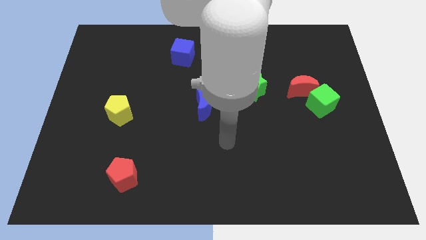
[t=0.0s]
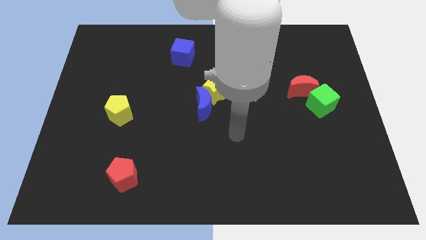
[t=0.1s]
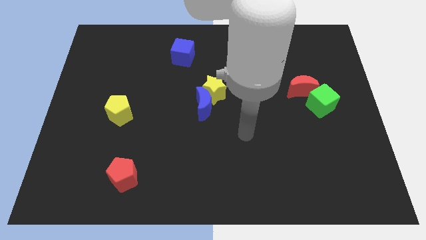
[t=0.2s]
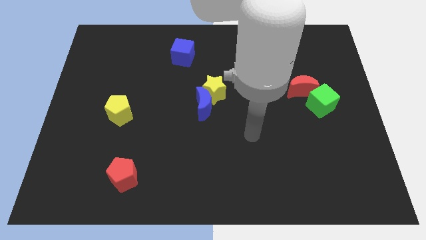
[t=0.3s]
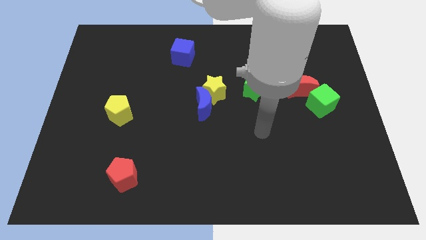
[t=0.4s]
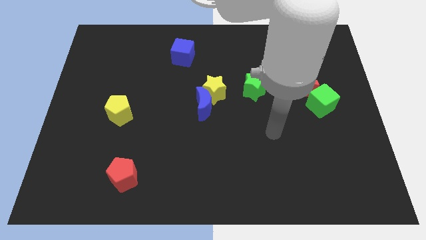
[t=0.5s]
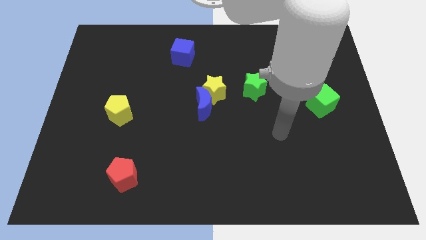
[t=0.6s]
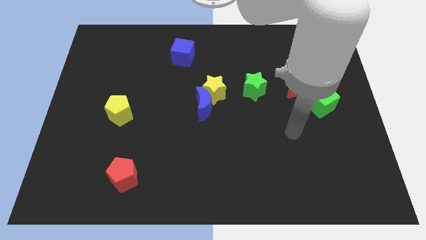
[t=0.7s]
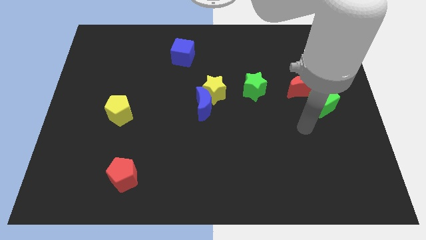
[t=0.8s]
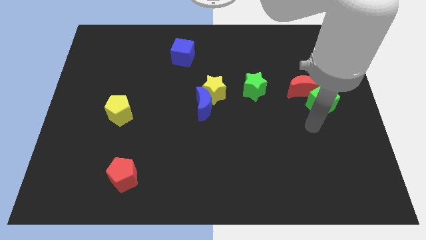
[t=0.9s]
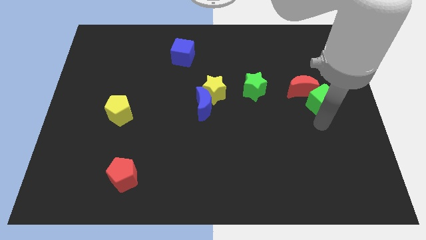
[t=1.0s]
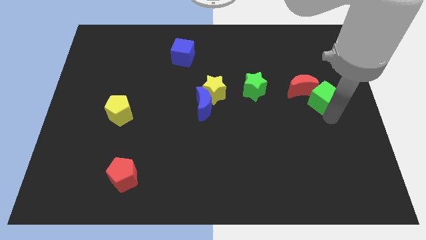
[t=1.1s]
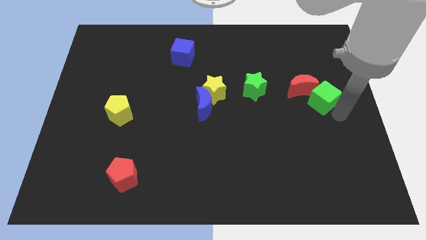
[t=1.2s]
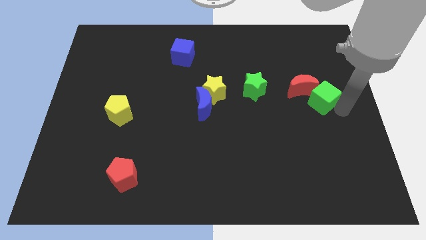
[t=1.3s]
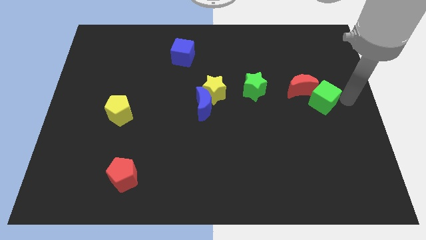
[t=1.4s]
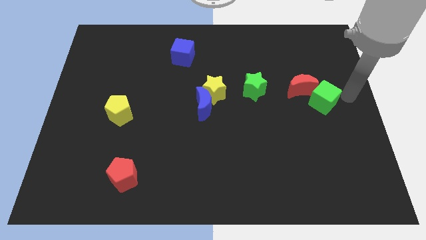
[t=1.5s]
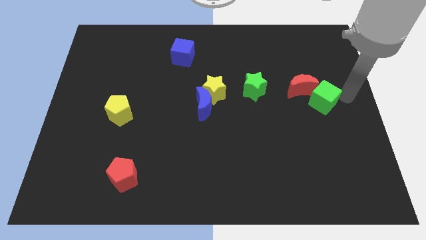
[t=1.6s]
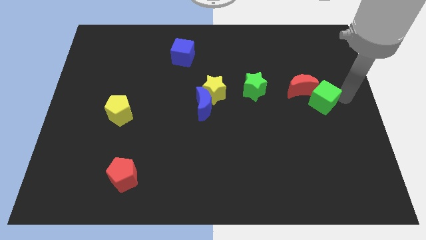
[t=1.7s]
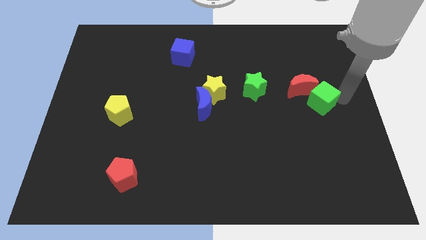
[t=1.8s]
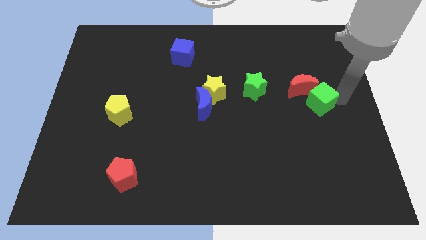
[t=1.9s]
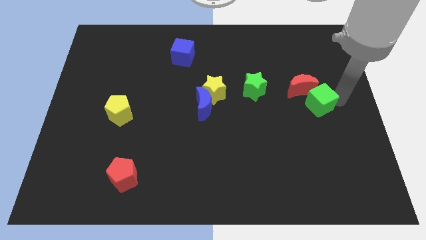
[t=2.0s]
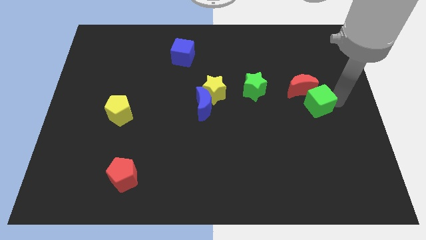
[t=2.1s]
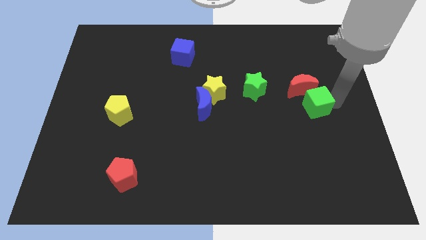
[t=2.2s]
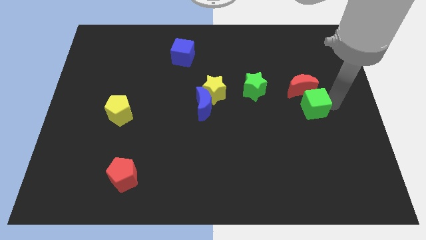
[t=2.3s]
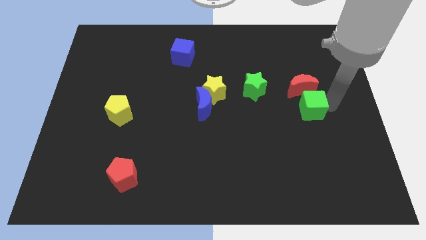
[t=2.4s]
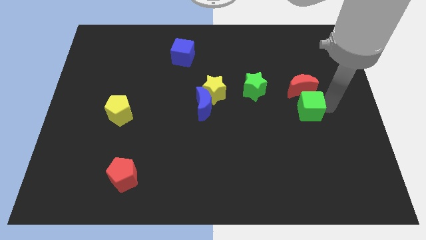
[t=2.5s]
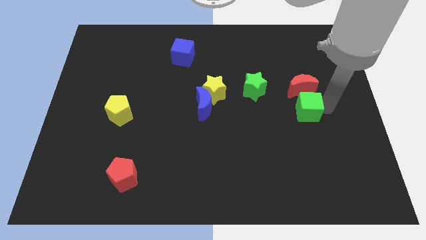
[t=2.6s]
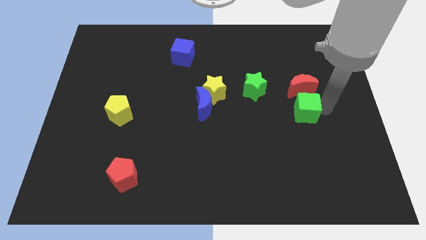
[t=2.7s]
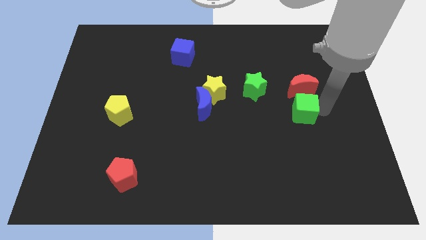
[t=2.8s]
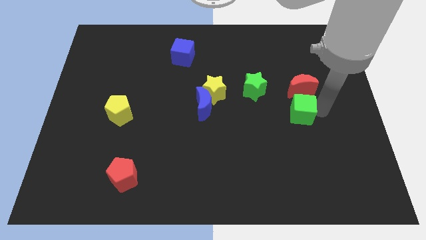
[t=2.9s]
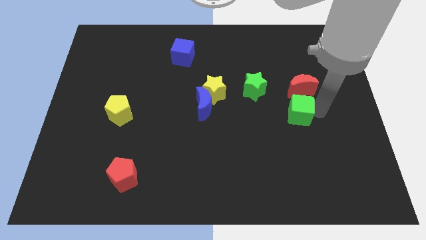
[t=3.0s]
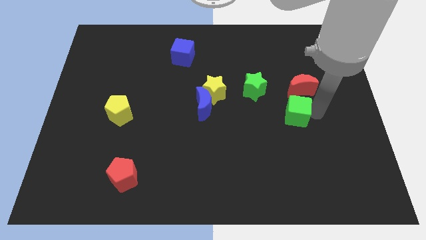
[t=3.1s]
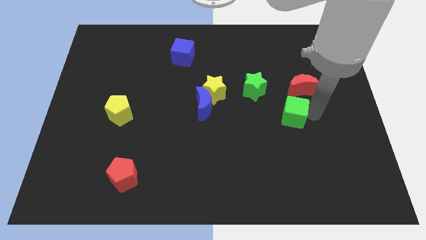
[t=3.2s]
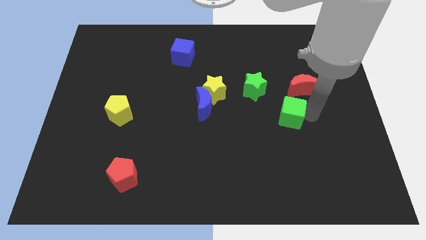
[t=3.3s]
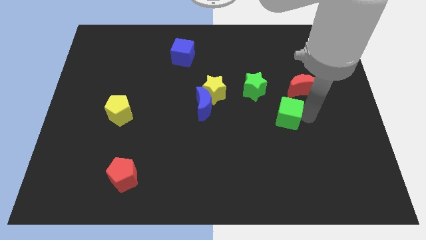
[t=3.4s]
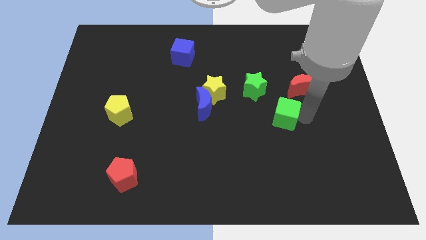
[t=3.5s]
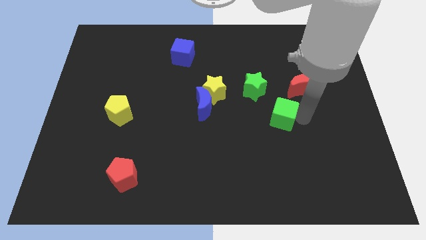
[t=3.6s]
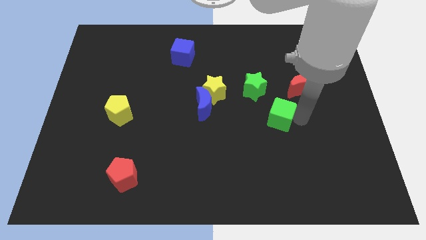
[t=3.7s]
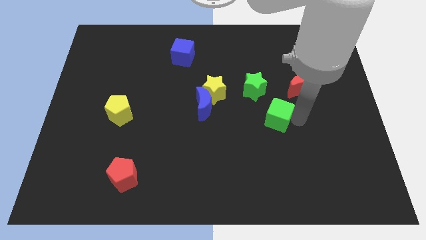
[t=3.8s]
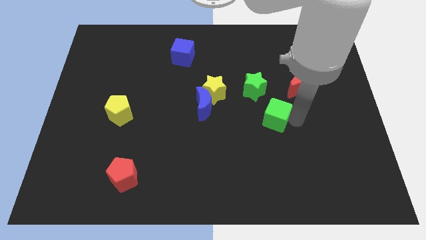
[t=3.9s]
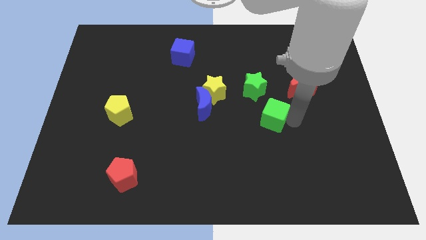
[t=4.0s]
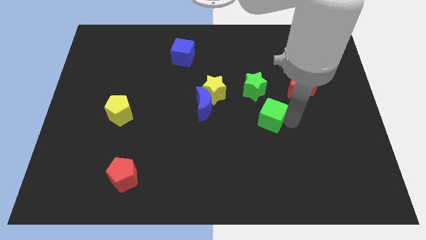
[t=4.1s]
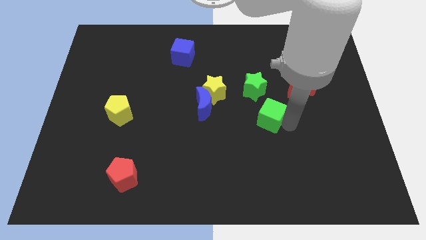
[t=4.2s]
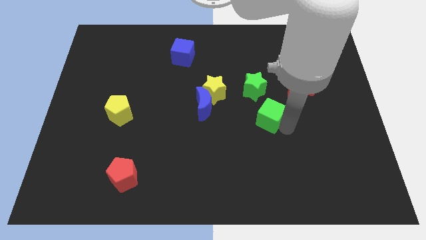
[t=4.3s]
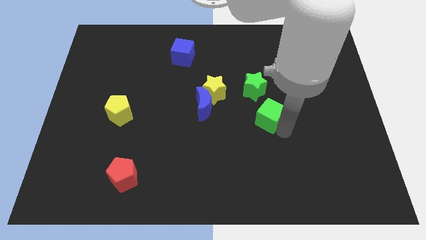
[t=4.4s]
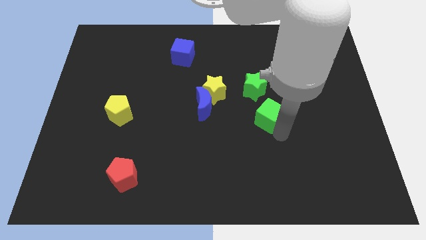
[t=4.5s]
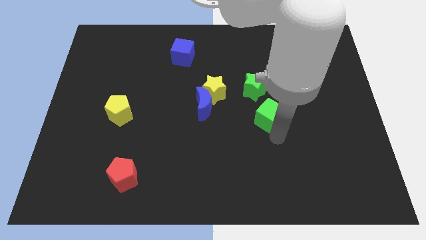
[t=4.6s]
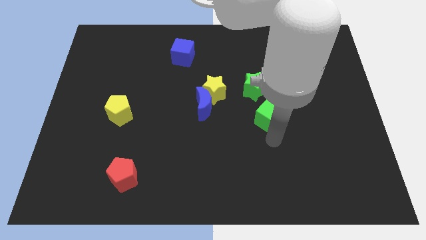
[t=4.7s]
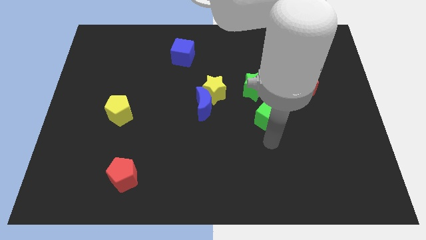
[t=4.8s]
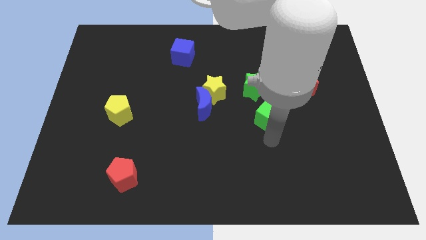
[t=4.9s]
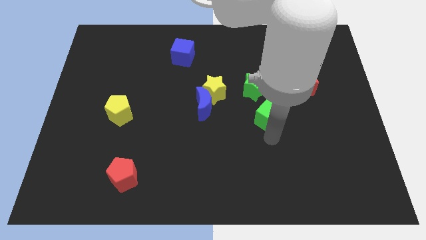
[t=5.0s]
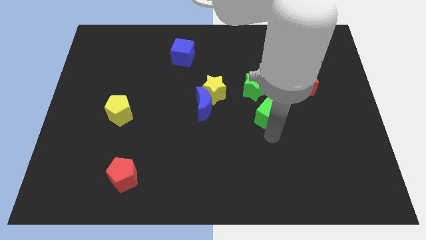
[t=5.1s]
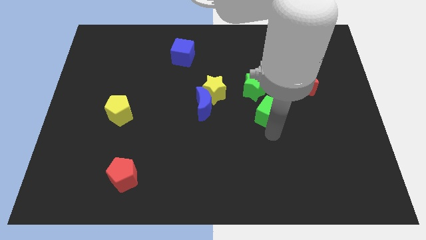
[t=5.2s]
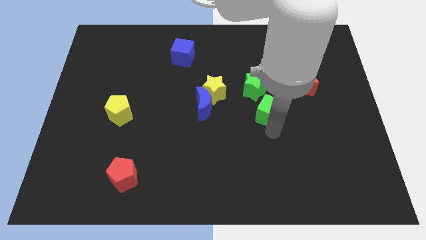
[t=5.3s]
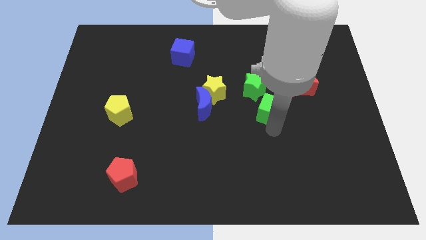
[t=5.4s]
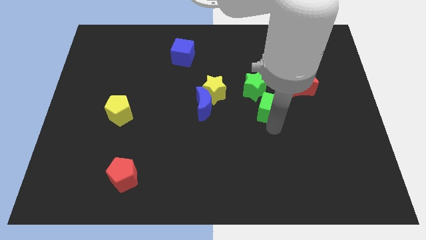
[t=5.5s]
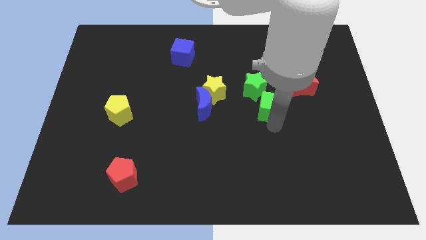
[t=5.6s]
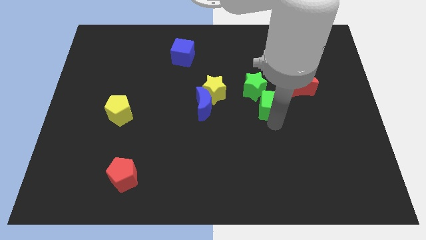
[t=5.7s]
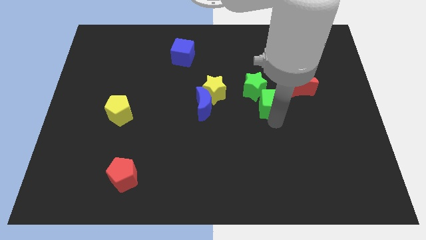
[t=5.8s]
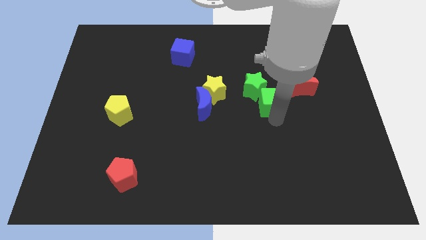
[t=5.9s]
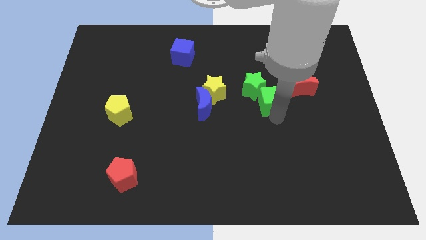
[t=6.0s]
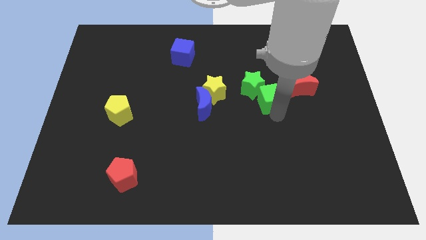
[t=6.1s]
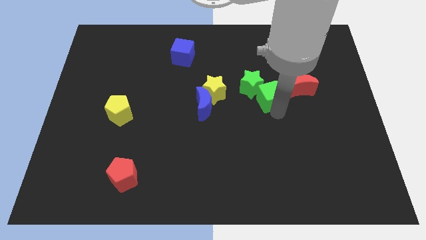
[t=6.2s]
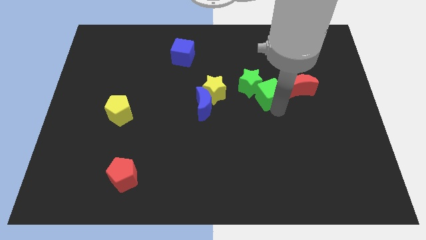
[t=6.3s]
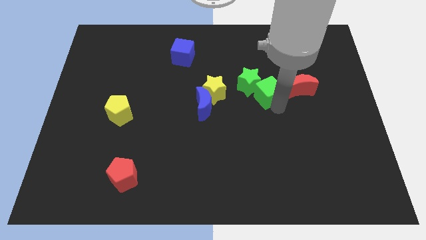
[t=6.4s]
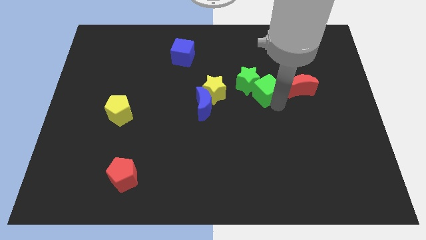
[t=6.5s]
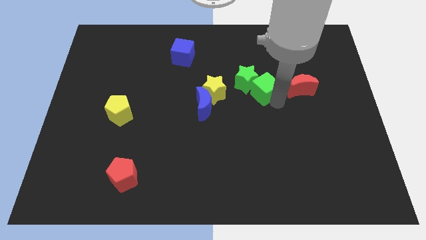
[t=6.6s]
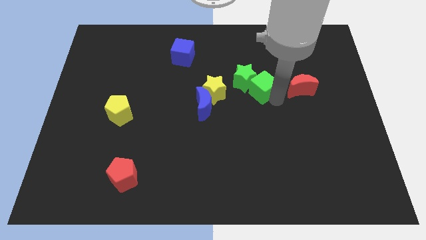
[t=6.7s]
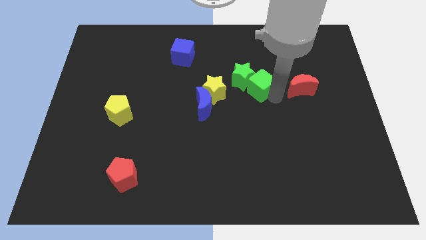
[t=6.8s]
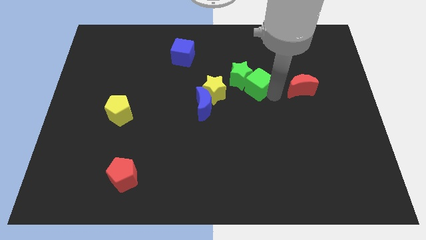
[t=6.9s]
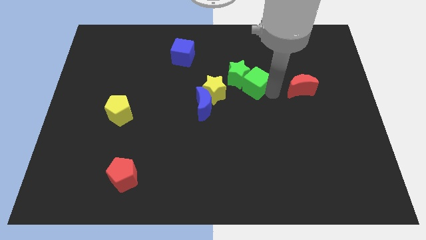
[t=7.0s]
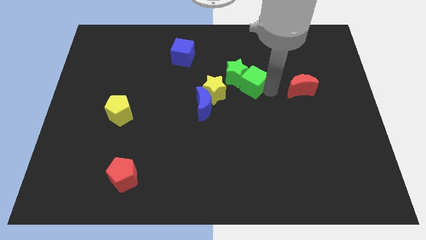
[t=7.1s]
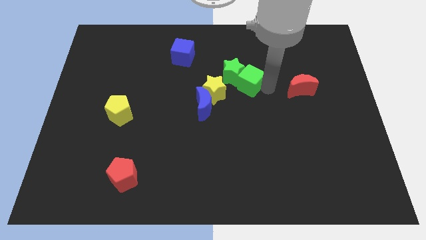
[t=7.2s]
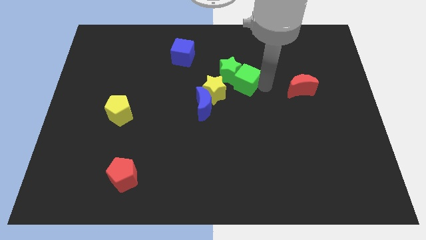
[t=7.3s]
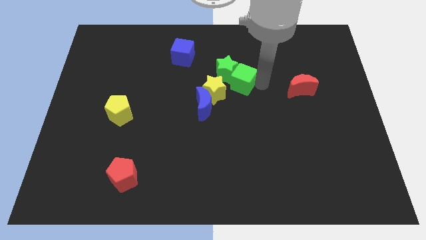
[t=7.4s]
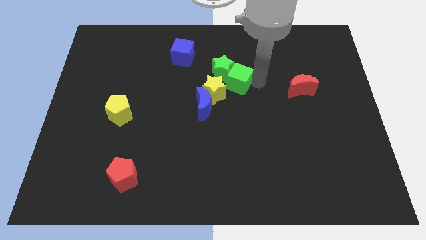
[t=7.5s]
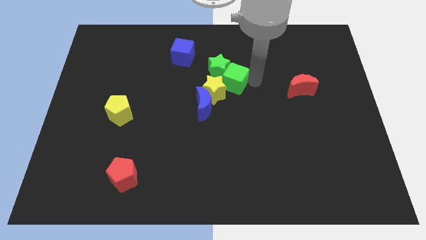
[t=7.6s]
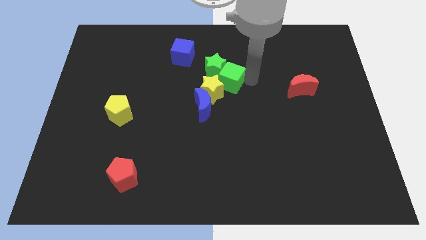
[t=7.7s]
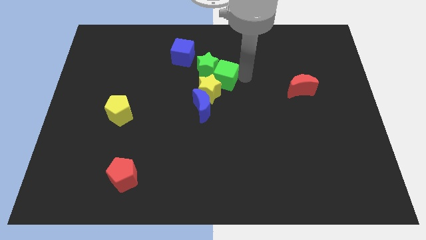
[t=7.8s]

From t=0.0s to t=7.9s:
push the green cube to the left
